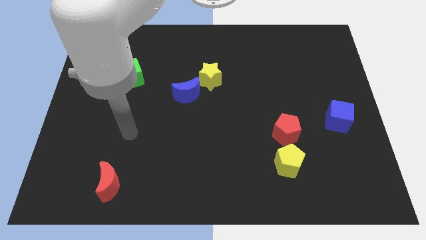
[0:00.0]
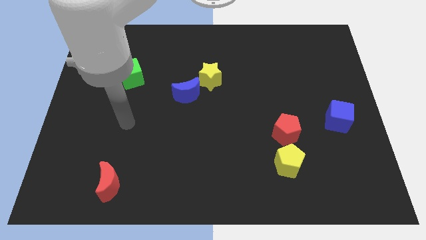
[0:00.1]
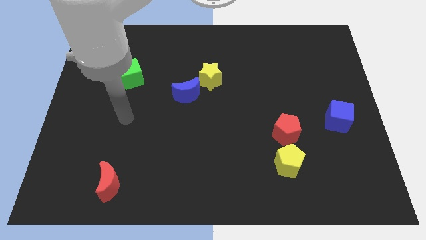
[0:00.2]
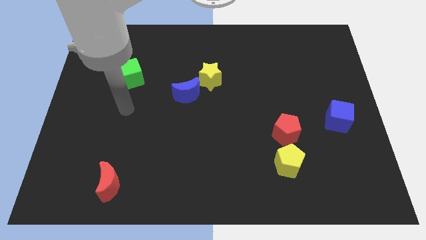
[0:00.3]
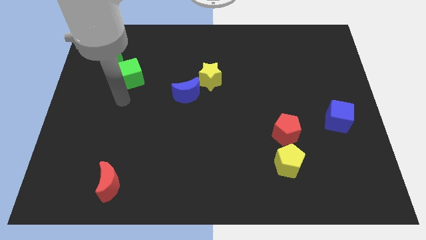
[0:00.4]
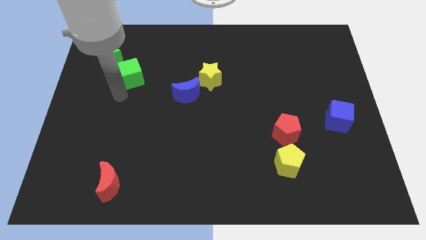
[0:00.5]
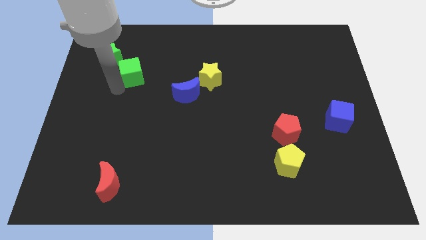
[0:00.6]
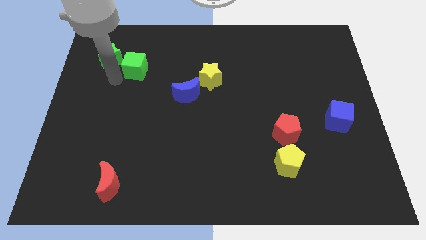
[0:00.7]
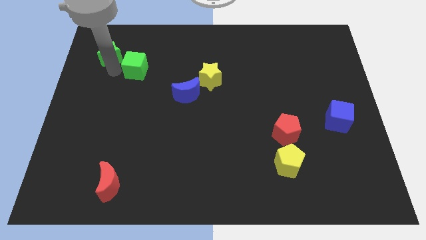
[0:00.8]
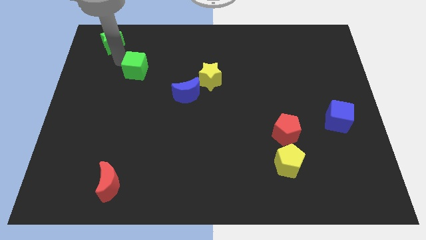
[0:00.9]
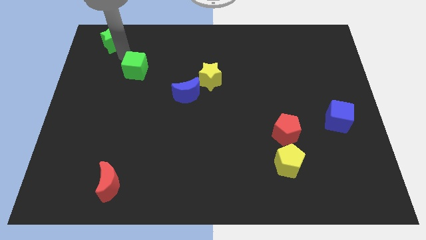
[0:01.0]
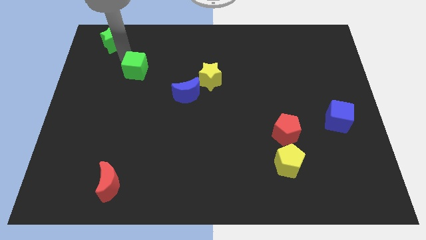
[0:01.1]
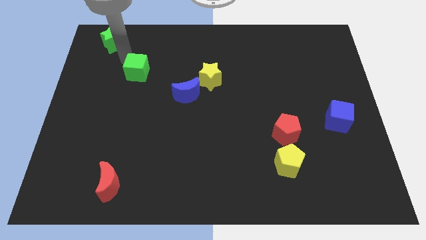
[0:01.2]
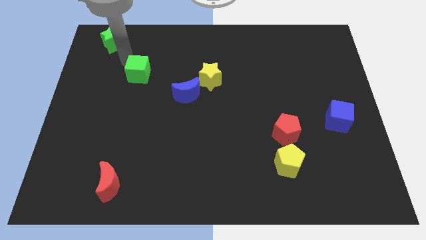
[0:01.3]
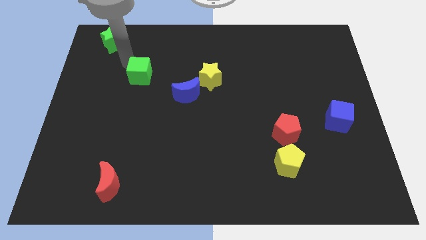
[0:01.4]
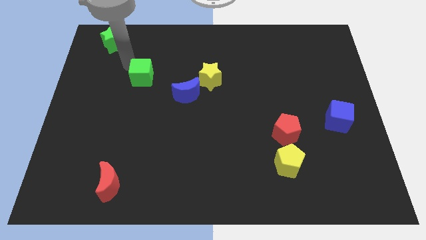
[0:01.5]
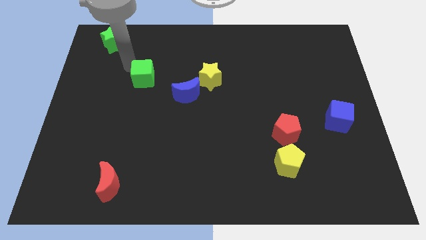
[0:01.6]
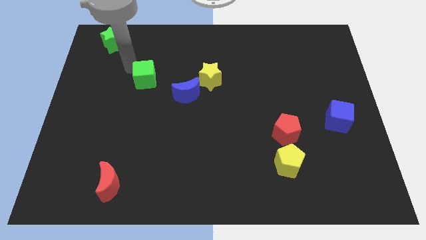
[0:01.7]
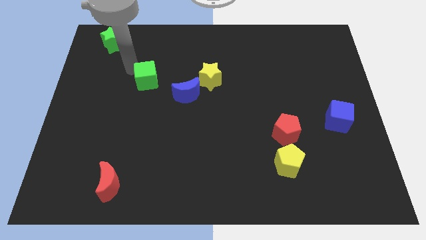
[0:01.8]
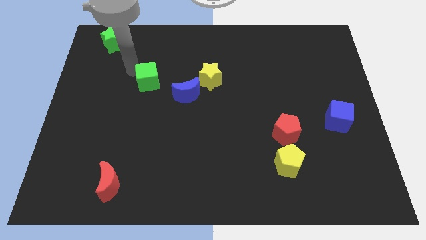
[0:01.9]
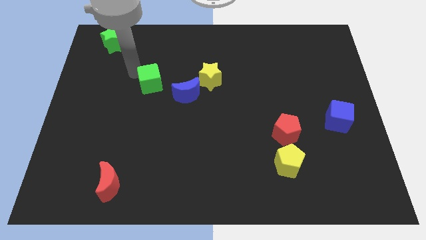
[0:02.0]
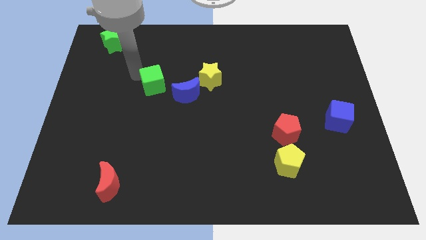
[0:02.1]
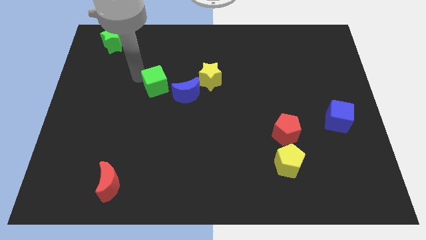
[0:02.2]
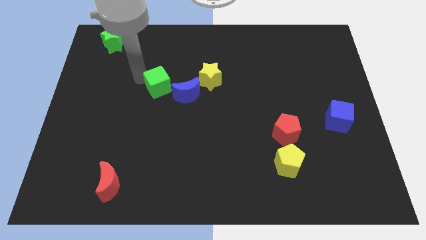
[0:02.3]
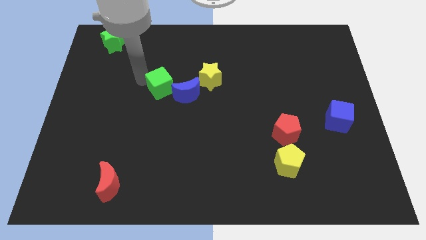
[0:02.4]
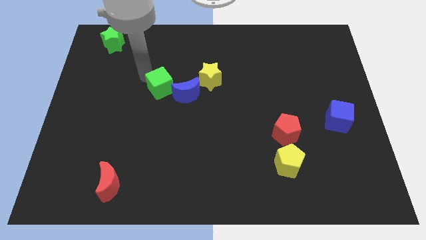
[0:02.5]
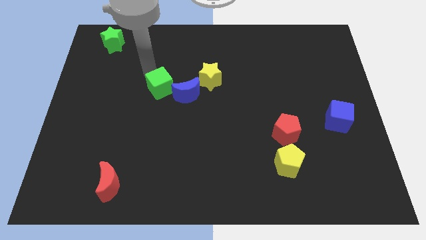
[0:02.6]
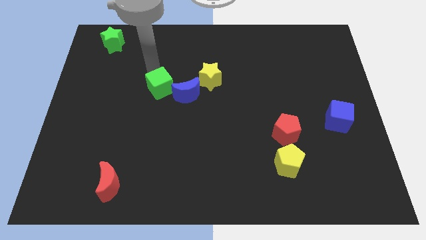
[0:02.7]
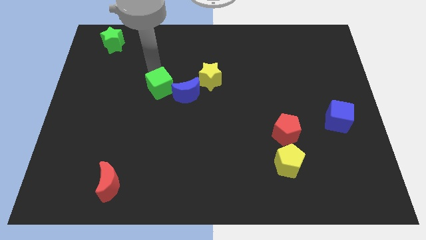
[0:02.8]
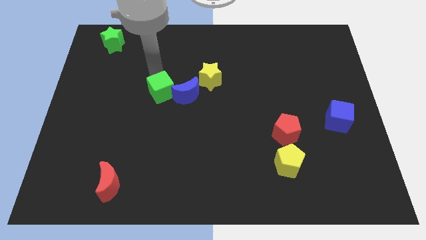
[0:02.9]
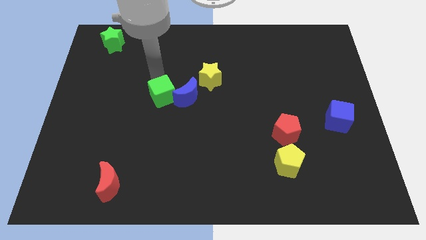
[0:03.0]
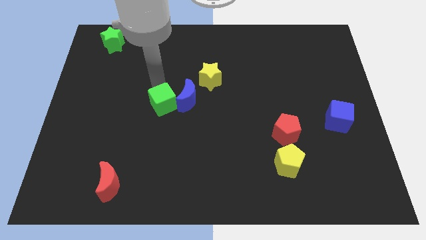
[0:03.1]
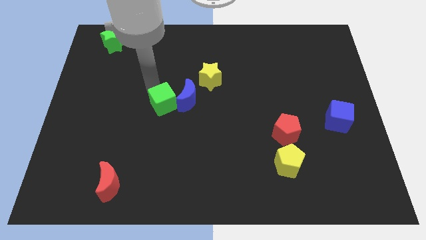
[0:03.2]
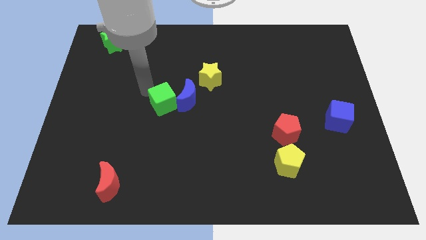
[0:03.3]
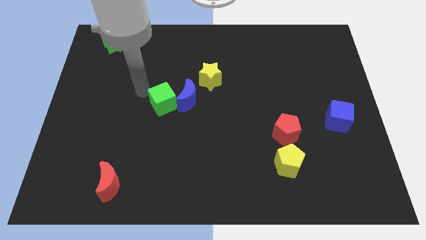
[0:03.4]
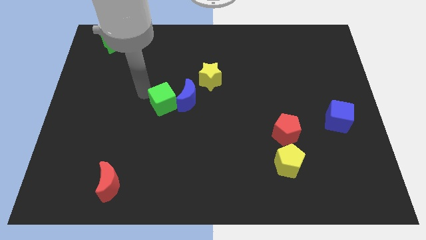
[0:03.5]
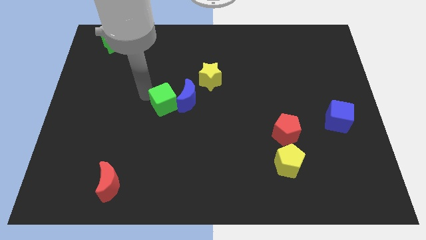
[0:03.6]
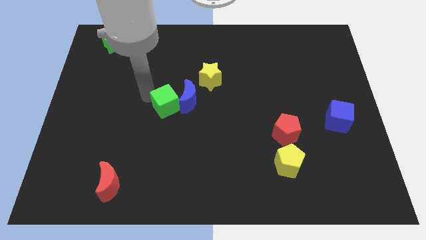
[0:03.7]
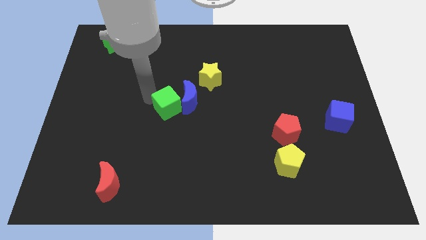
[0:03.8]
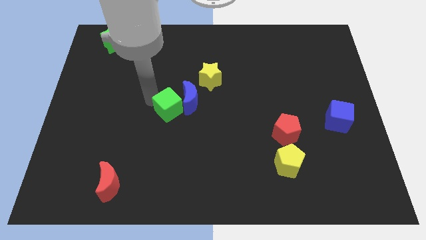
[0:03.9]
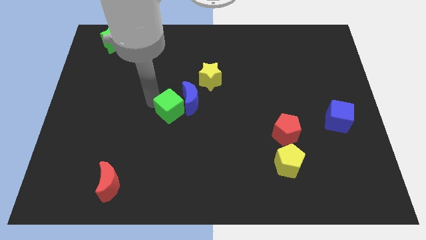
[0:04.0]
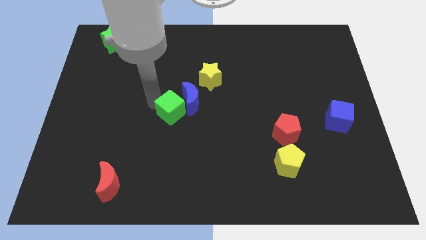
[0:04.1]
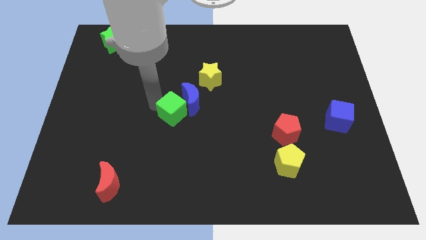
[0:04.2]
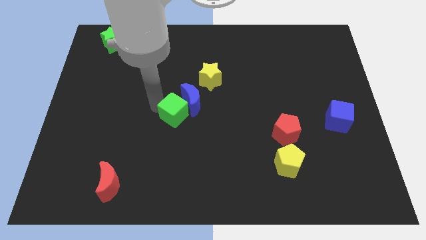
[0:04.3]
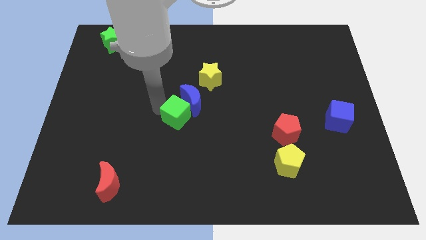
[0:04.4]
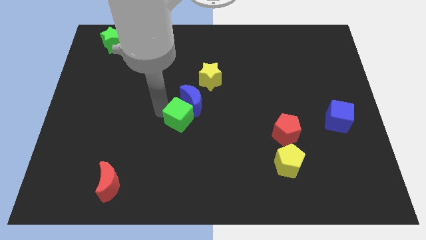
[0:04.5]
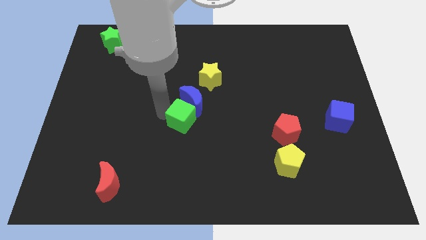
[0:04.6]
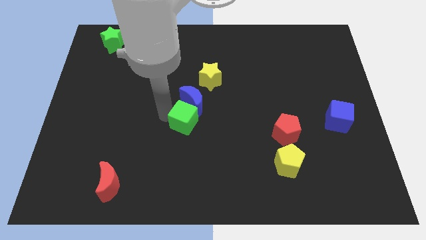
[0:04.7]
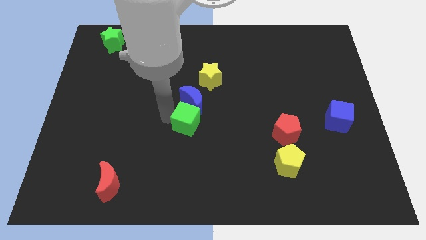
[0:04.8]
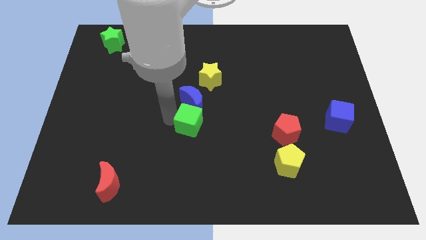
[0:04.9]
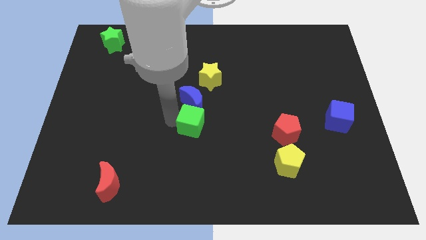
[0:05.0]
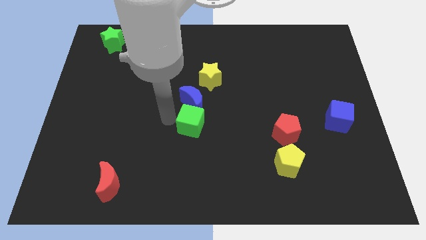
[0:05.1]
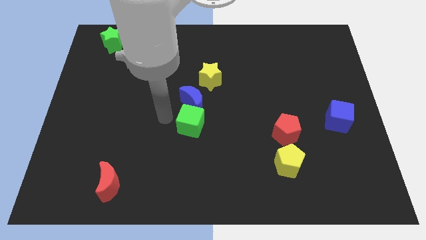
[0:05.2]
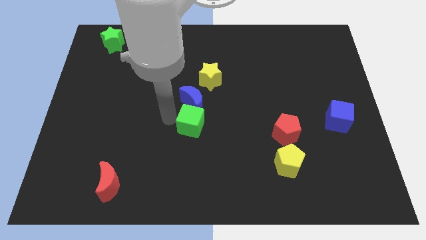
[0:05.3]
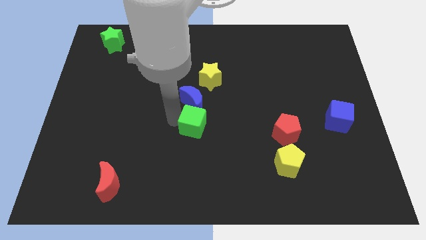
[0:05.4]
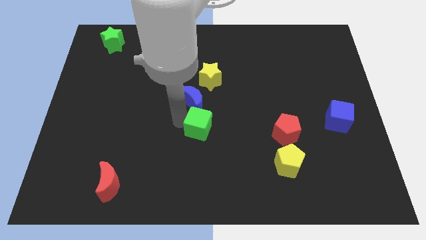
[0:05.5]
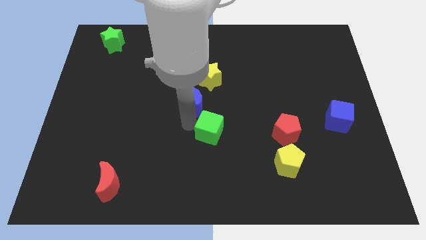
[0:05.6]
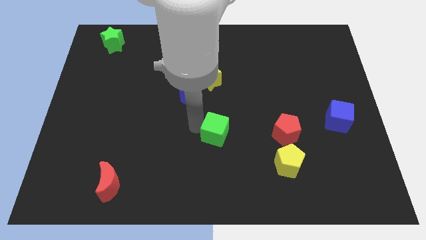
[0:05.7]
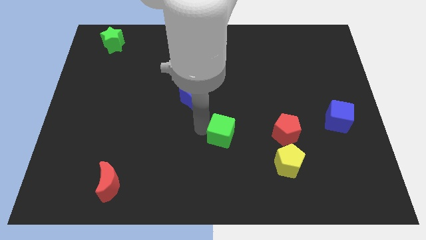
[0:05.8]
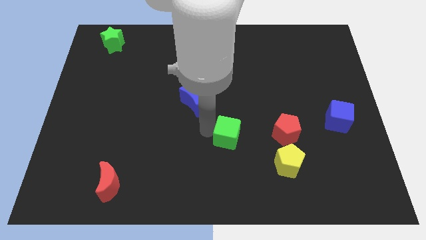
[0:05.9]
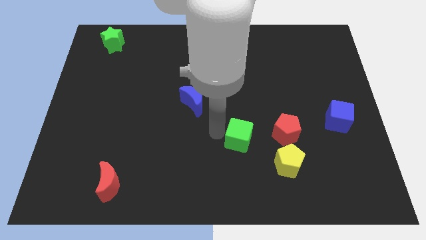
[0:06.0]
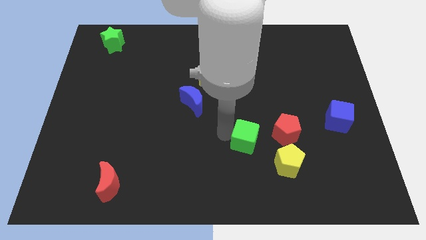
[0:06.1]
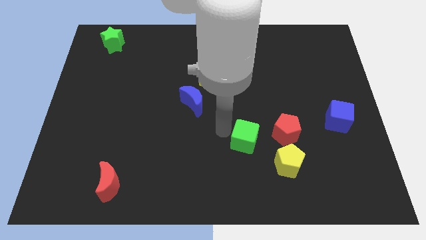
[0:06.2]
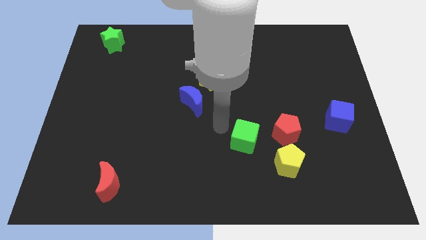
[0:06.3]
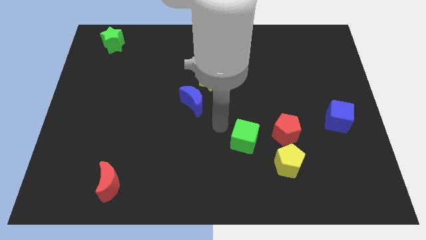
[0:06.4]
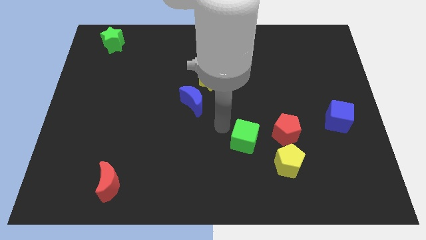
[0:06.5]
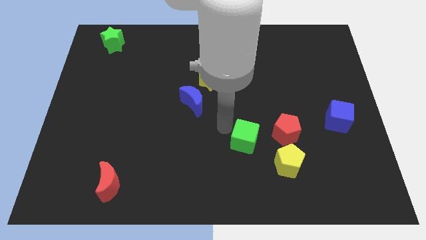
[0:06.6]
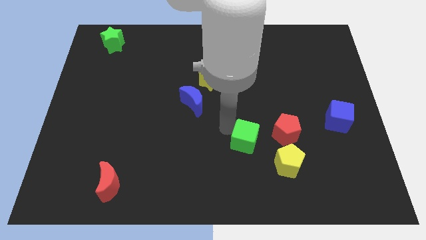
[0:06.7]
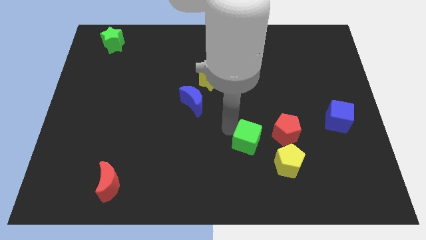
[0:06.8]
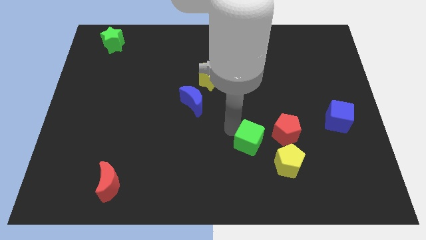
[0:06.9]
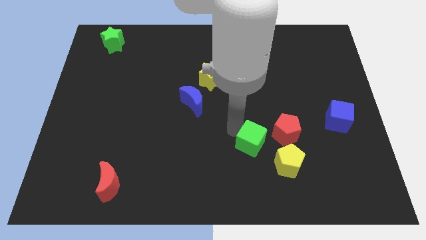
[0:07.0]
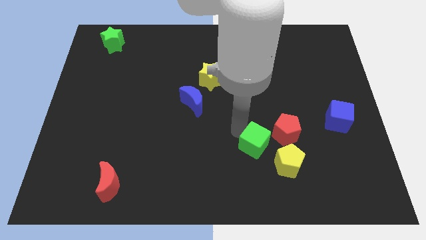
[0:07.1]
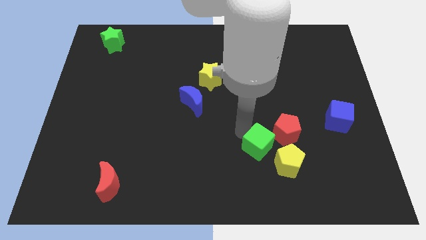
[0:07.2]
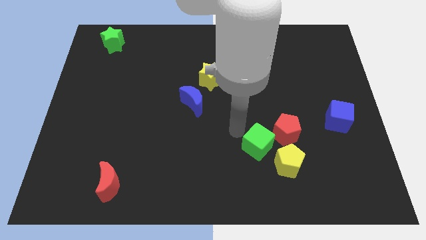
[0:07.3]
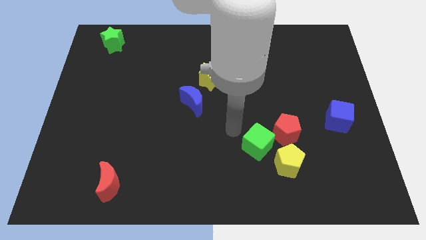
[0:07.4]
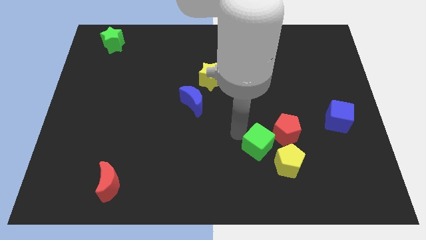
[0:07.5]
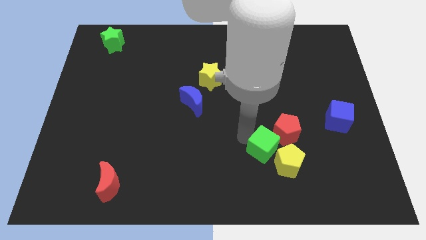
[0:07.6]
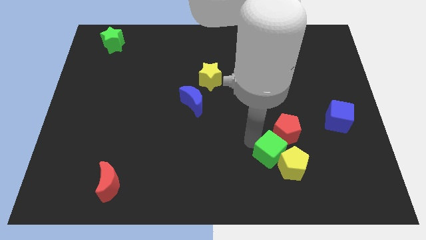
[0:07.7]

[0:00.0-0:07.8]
put the green cube to the yellow pentagon
